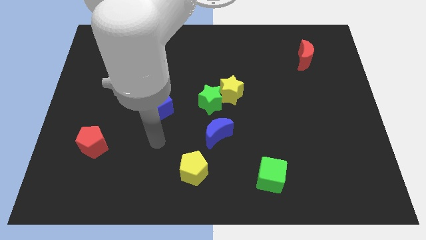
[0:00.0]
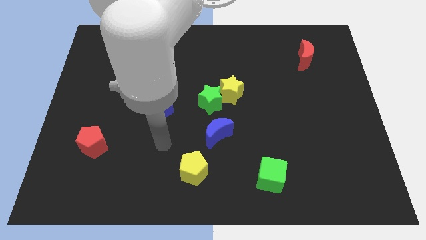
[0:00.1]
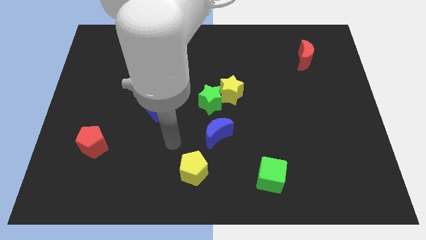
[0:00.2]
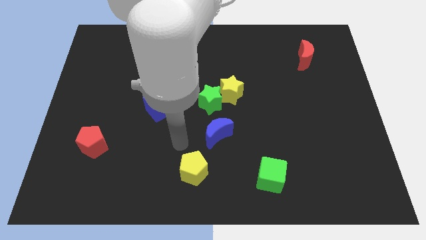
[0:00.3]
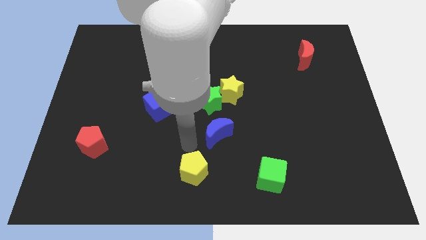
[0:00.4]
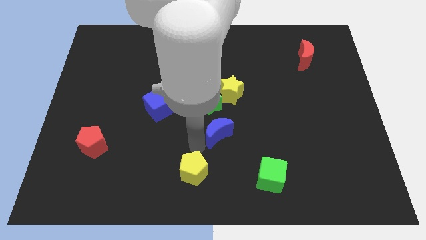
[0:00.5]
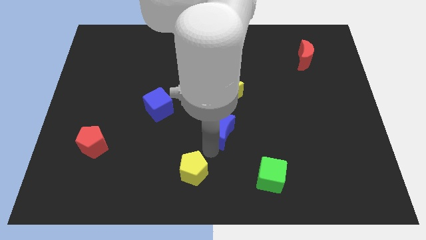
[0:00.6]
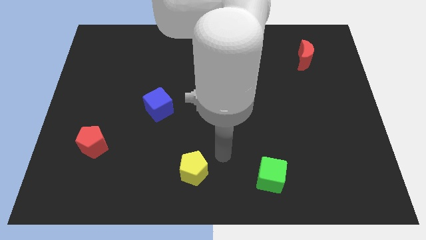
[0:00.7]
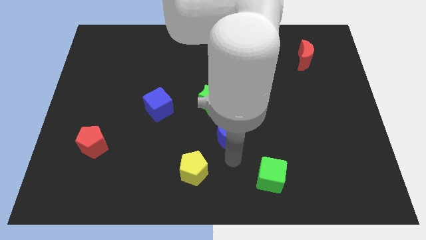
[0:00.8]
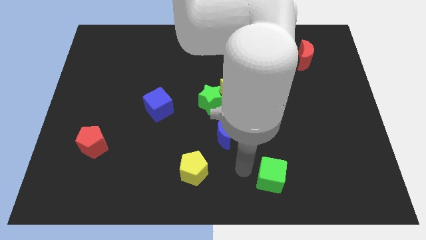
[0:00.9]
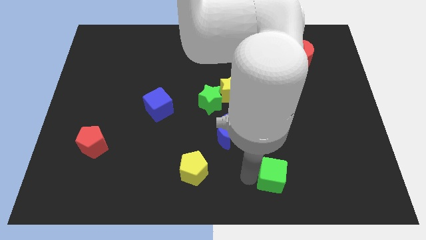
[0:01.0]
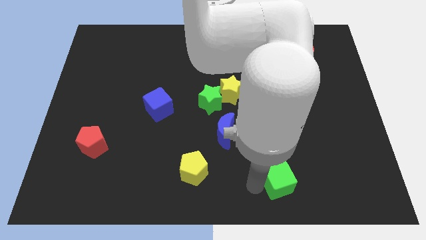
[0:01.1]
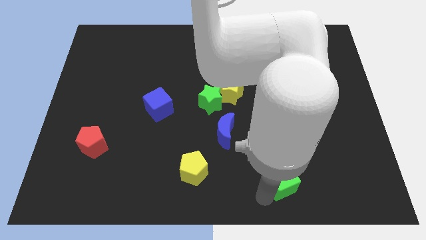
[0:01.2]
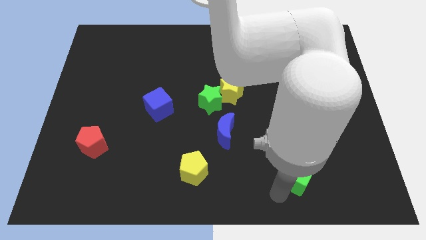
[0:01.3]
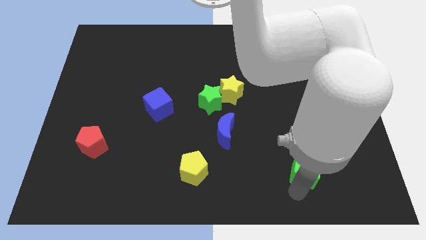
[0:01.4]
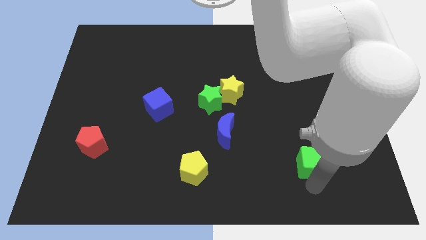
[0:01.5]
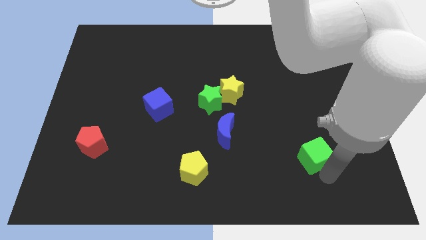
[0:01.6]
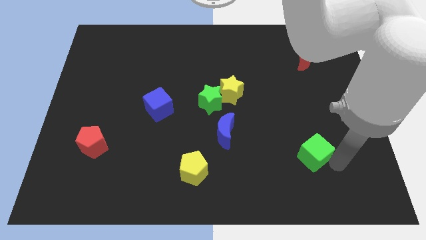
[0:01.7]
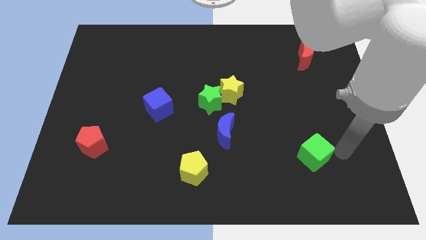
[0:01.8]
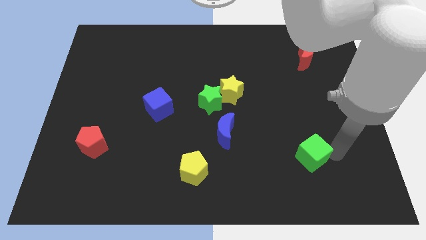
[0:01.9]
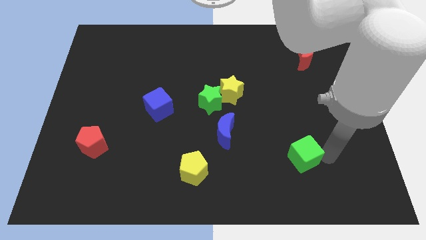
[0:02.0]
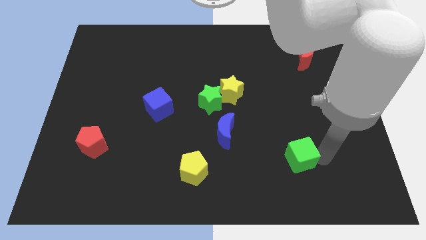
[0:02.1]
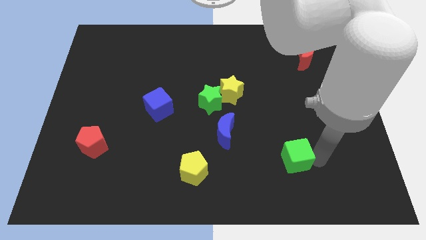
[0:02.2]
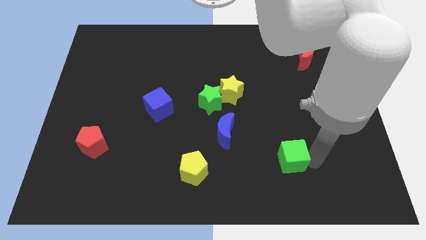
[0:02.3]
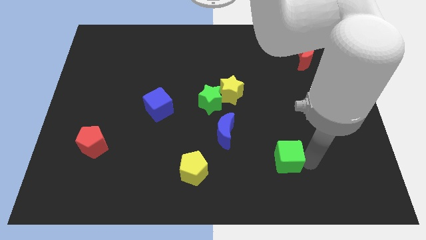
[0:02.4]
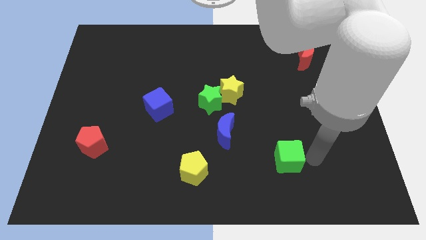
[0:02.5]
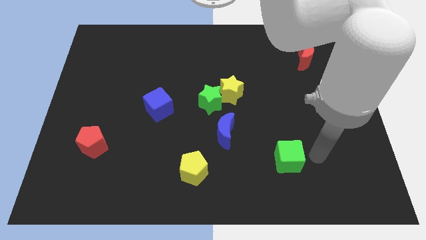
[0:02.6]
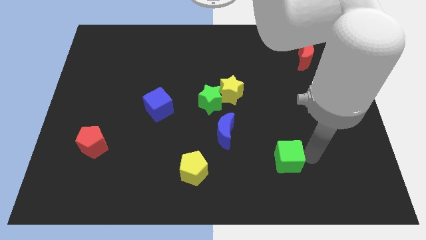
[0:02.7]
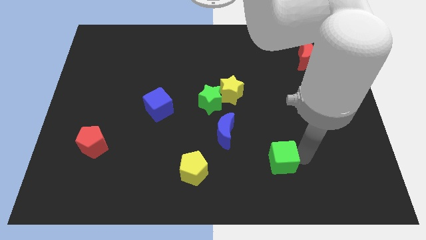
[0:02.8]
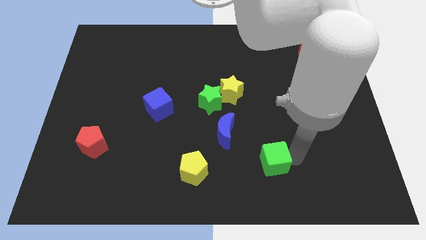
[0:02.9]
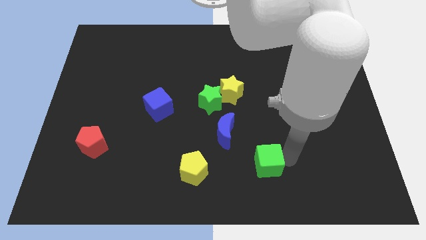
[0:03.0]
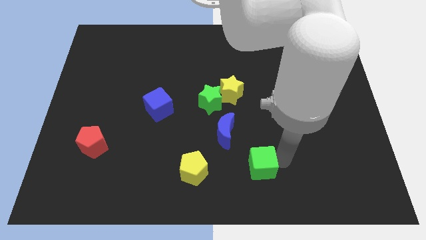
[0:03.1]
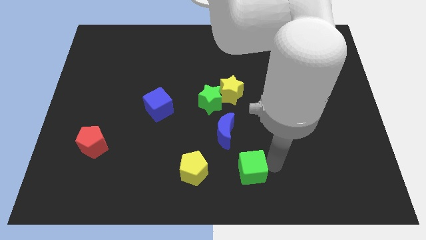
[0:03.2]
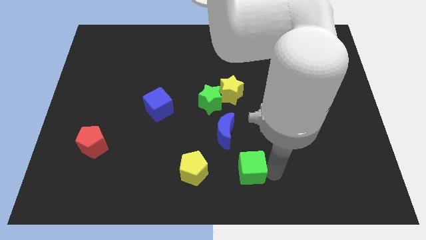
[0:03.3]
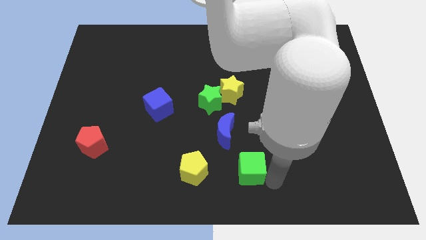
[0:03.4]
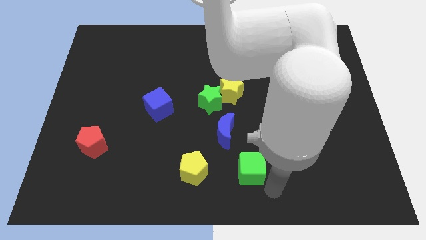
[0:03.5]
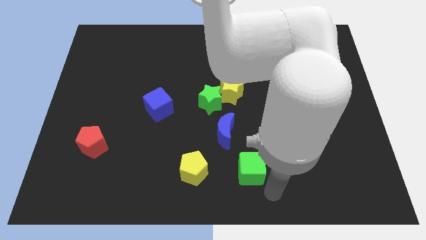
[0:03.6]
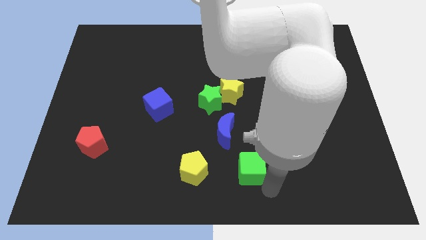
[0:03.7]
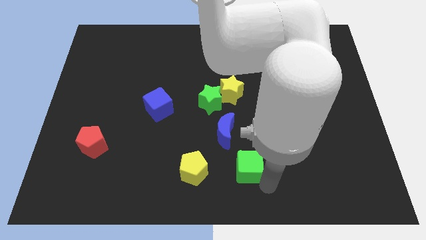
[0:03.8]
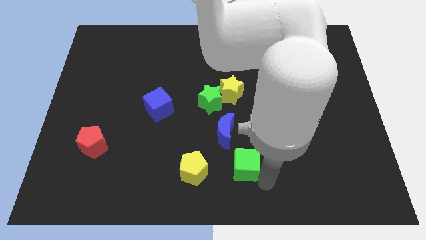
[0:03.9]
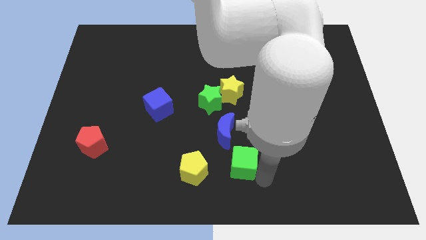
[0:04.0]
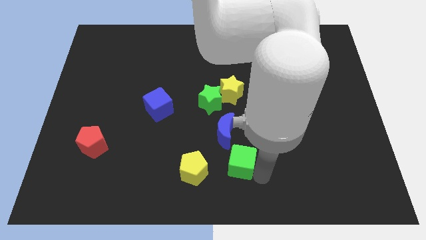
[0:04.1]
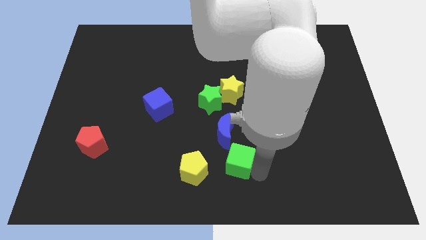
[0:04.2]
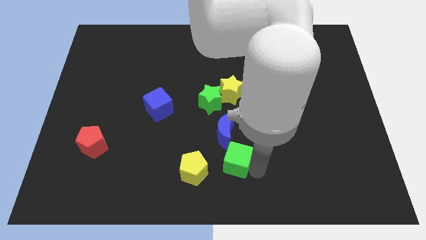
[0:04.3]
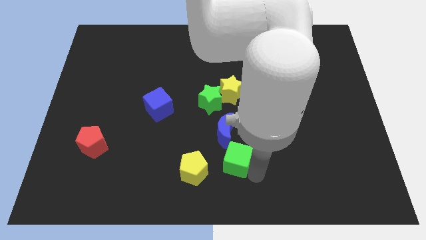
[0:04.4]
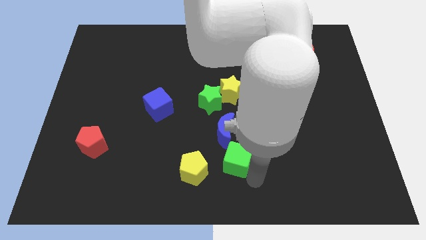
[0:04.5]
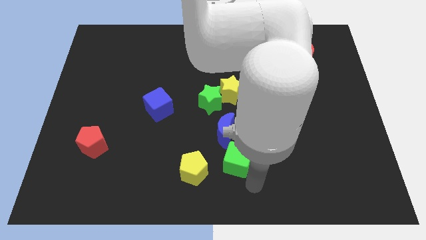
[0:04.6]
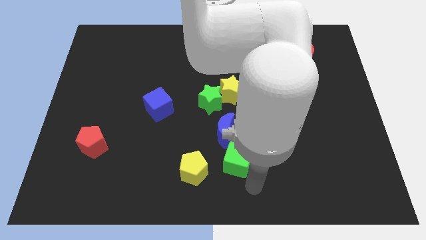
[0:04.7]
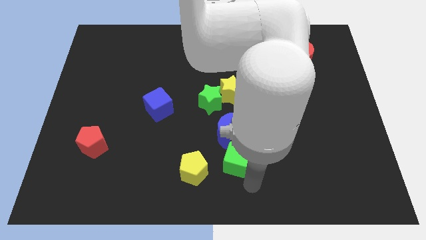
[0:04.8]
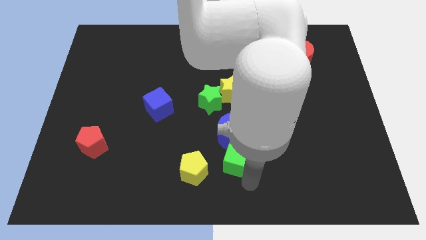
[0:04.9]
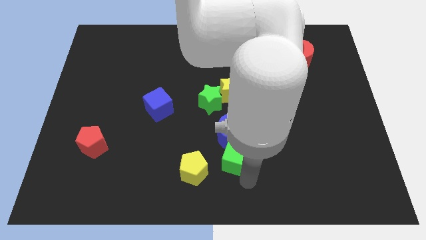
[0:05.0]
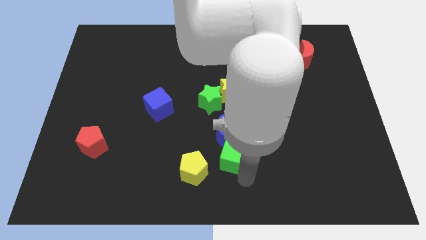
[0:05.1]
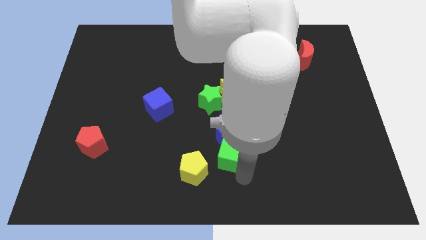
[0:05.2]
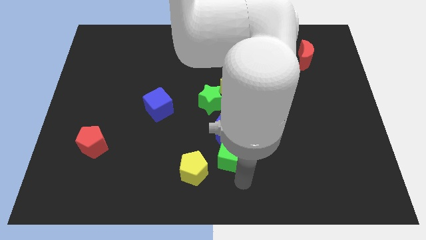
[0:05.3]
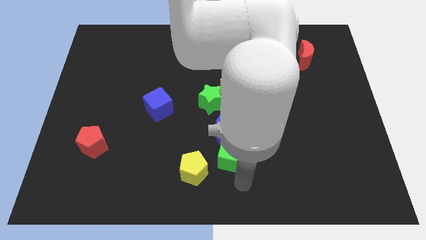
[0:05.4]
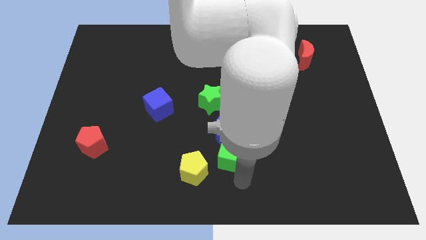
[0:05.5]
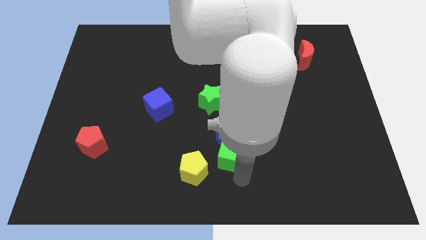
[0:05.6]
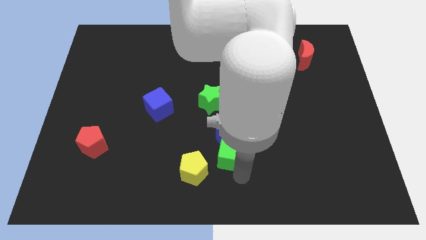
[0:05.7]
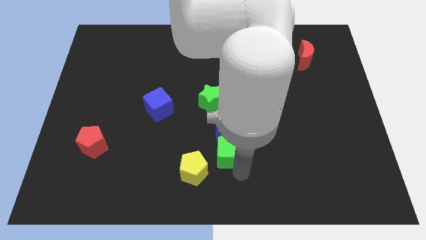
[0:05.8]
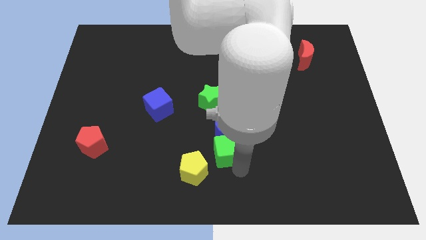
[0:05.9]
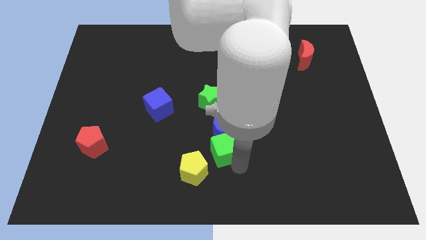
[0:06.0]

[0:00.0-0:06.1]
slide the green cube next to the blue moon

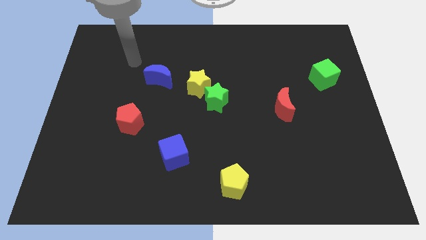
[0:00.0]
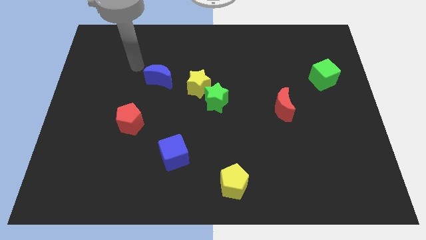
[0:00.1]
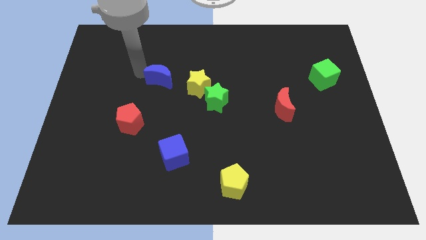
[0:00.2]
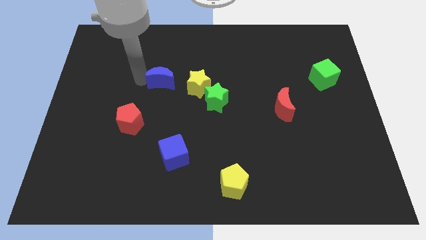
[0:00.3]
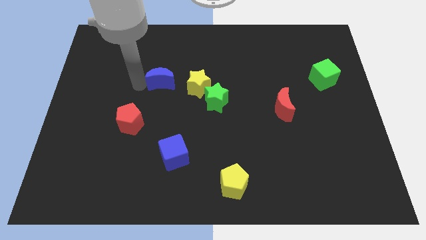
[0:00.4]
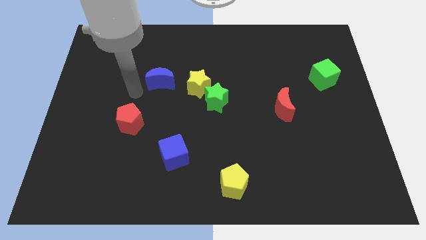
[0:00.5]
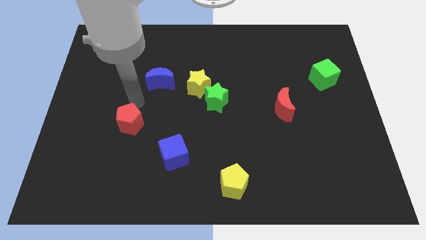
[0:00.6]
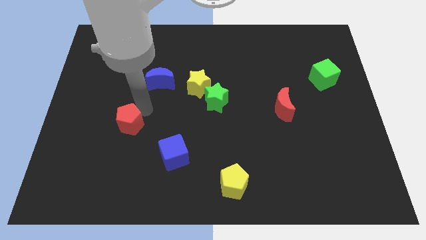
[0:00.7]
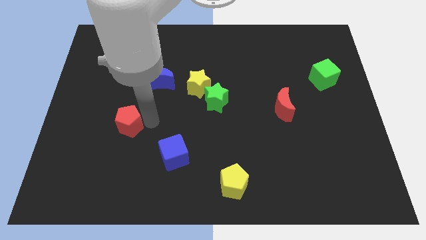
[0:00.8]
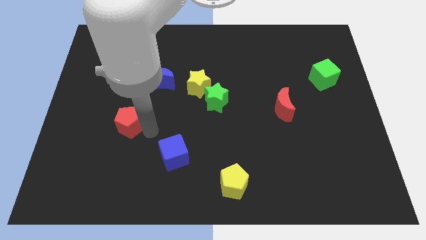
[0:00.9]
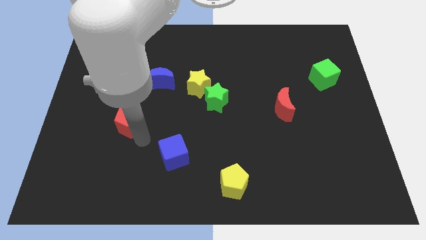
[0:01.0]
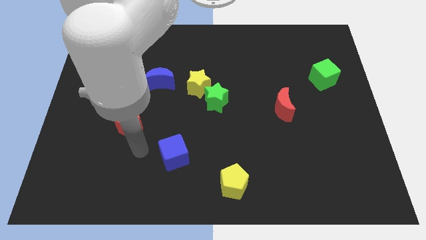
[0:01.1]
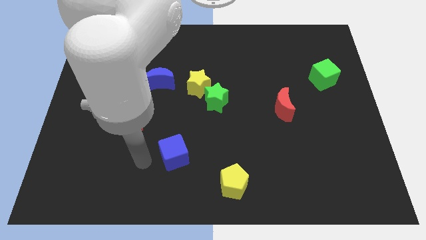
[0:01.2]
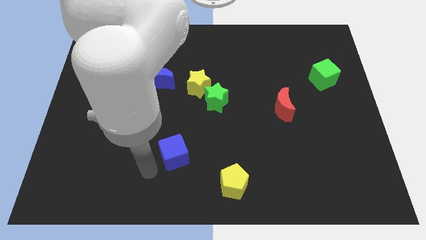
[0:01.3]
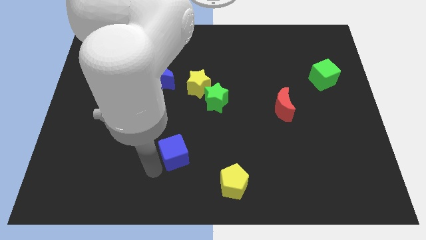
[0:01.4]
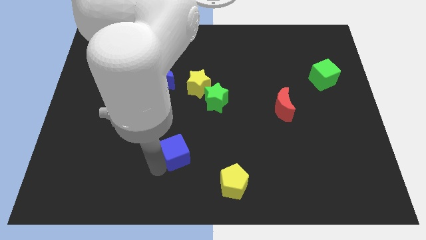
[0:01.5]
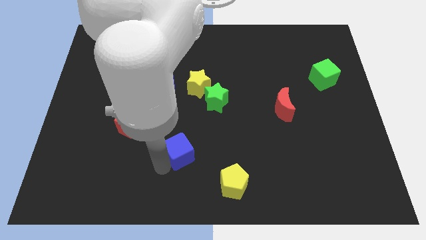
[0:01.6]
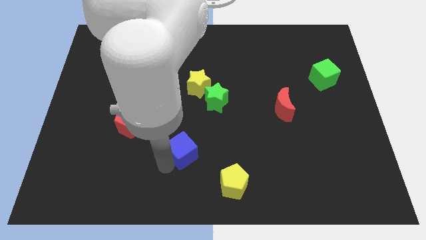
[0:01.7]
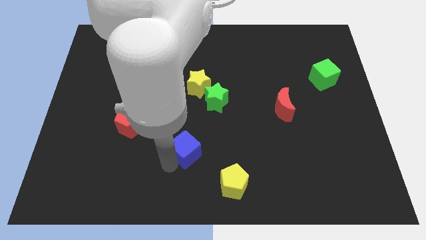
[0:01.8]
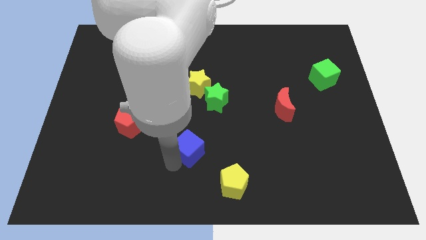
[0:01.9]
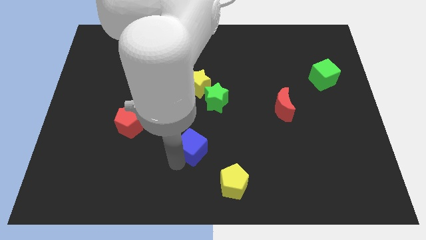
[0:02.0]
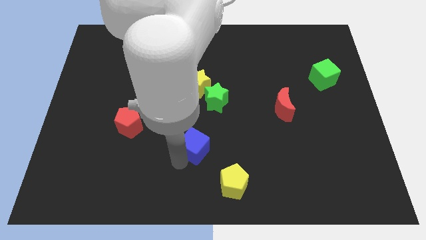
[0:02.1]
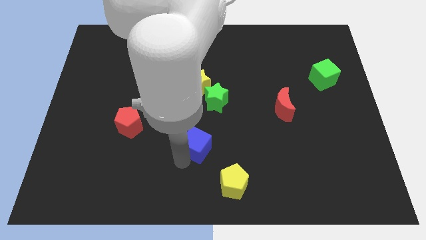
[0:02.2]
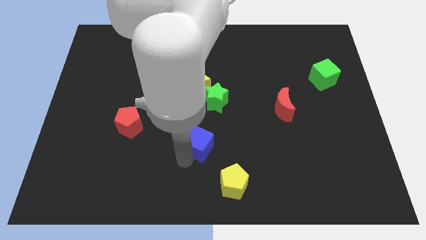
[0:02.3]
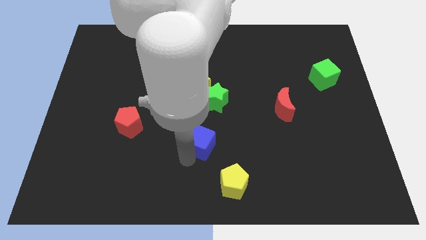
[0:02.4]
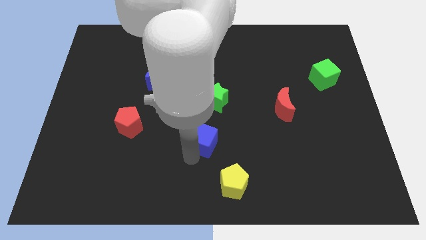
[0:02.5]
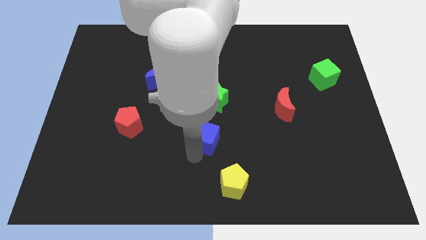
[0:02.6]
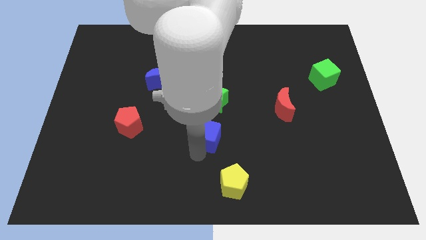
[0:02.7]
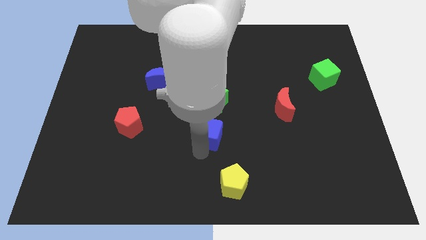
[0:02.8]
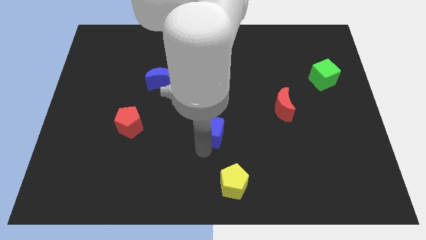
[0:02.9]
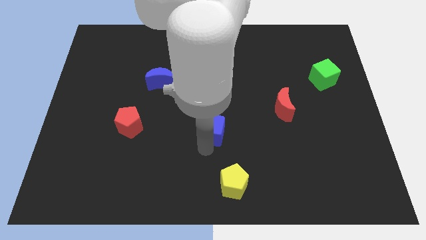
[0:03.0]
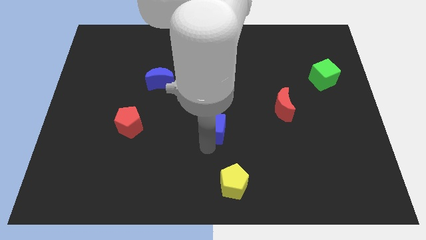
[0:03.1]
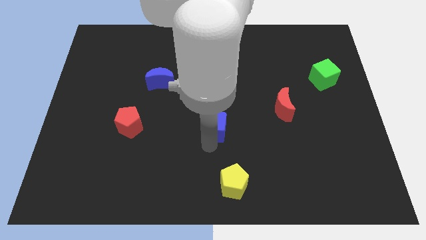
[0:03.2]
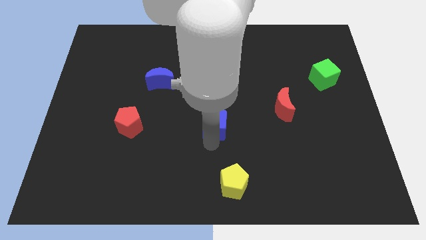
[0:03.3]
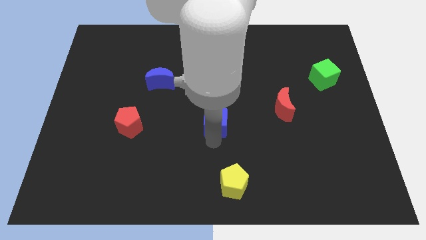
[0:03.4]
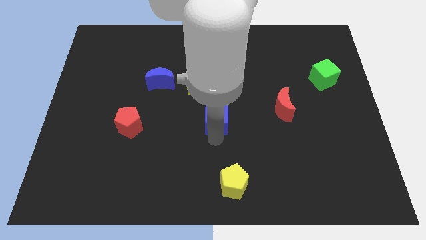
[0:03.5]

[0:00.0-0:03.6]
push the blue cube to the green star
